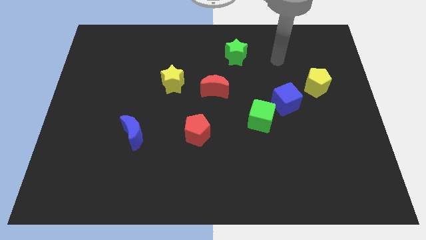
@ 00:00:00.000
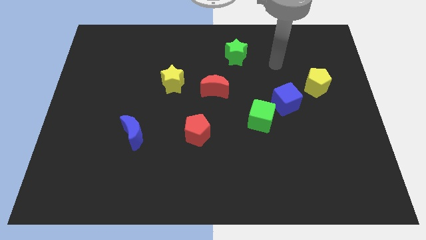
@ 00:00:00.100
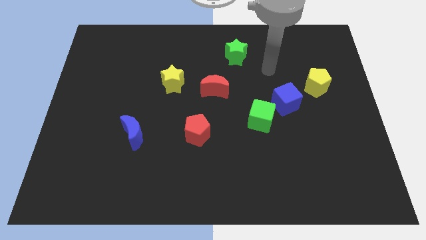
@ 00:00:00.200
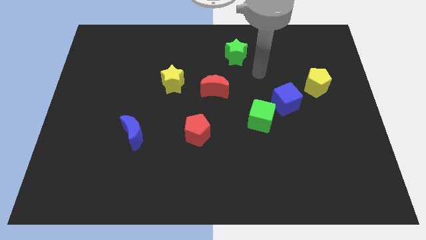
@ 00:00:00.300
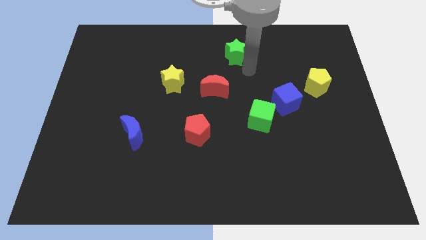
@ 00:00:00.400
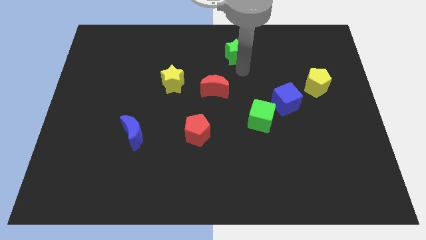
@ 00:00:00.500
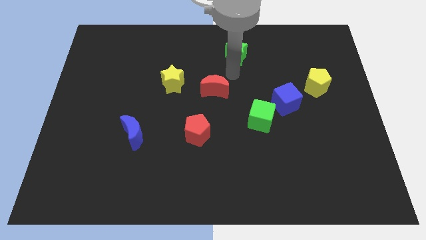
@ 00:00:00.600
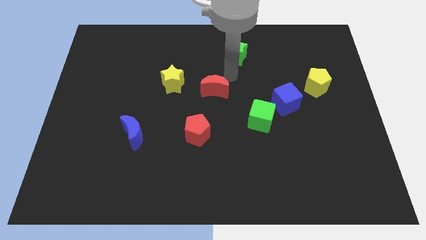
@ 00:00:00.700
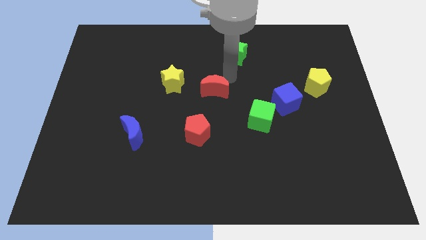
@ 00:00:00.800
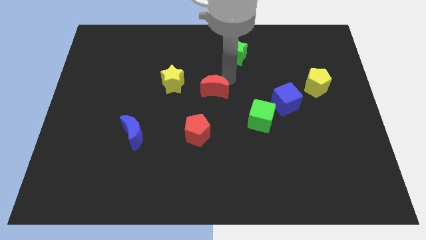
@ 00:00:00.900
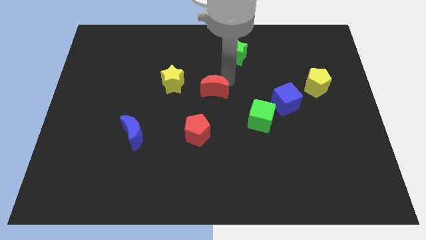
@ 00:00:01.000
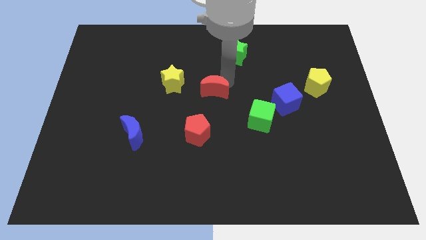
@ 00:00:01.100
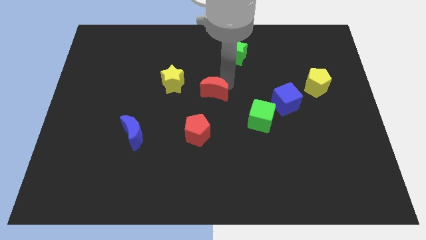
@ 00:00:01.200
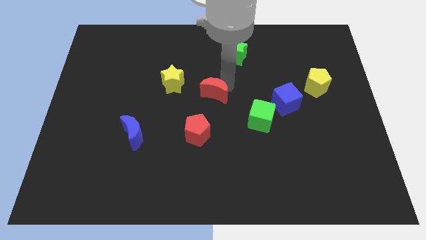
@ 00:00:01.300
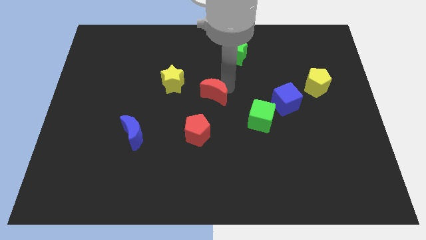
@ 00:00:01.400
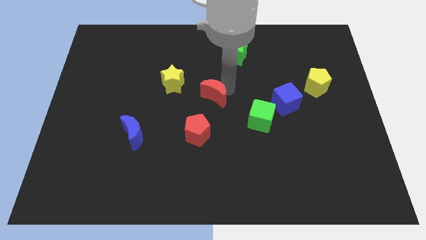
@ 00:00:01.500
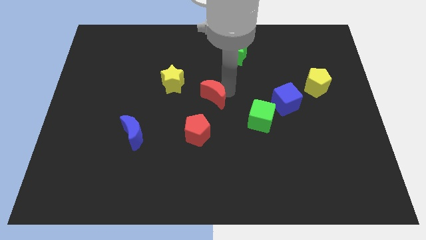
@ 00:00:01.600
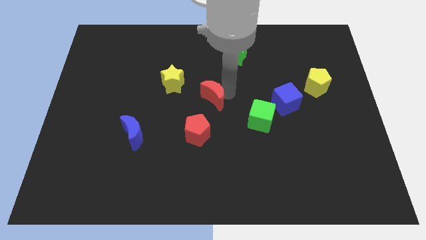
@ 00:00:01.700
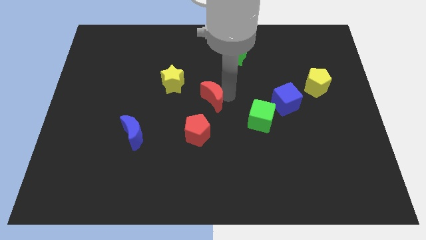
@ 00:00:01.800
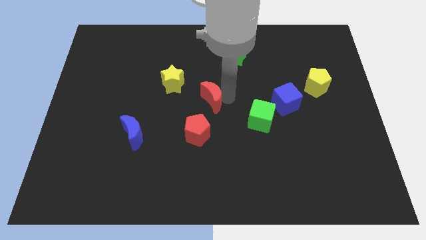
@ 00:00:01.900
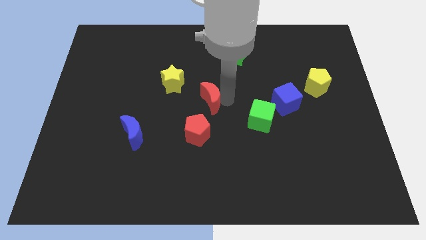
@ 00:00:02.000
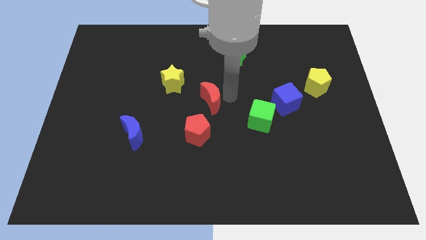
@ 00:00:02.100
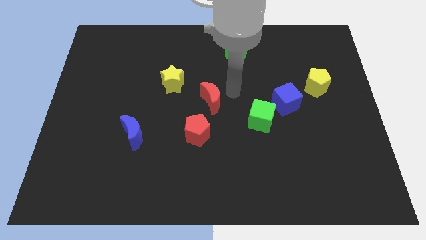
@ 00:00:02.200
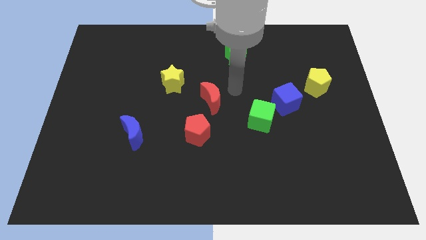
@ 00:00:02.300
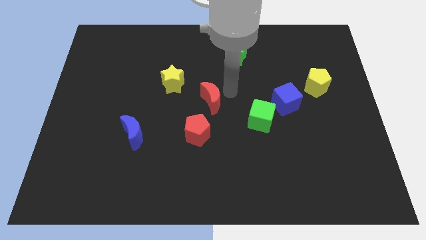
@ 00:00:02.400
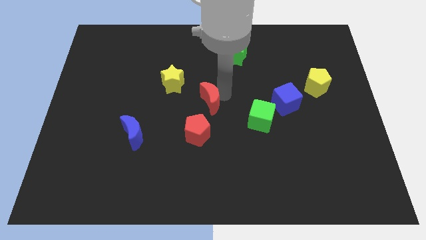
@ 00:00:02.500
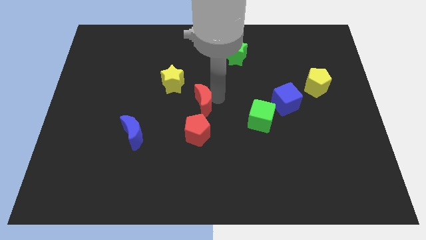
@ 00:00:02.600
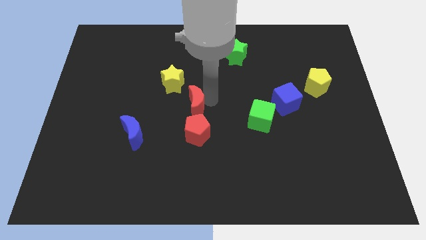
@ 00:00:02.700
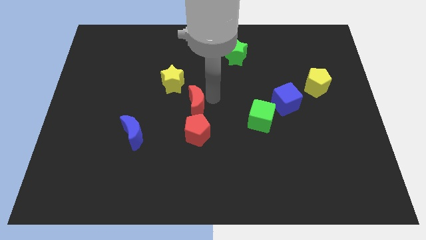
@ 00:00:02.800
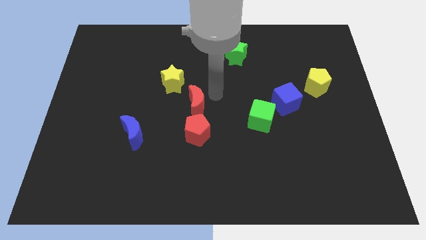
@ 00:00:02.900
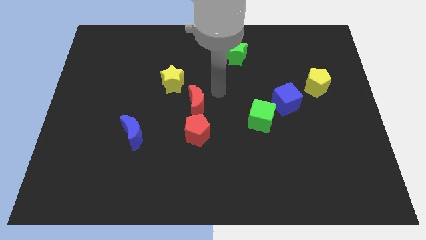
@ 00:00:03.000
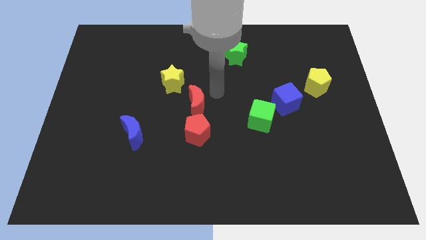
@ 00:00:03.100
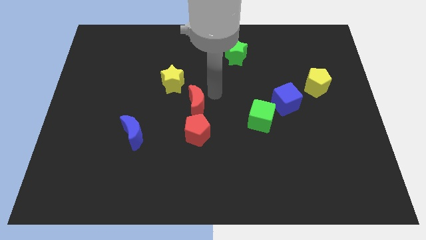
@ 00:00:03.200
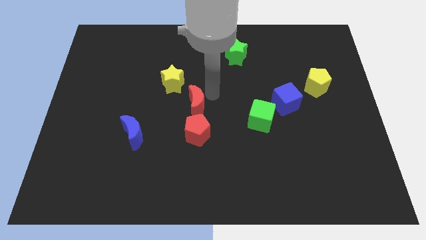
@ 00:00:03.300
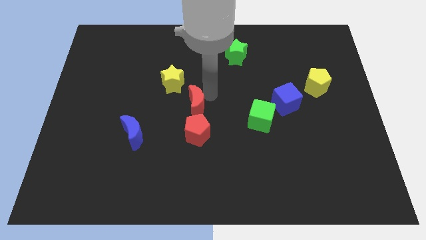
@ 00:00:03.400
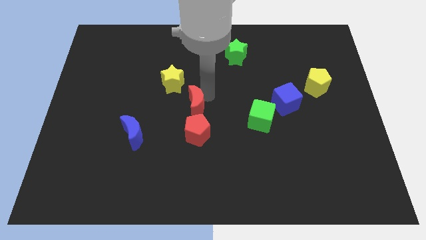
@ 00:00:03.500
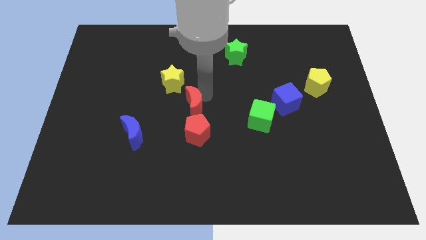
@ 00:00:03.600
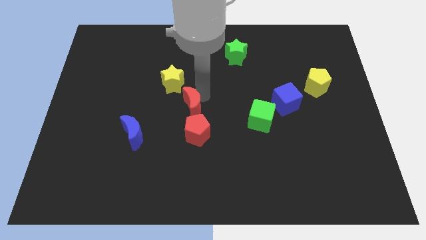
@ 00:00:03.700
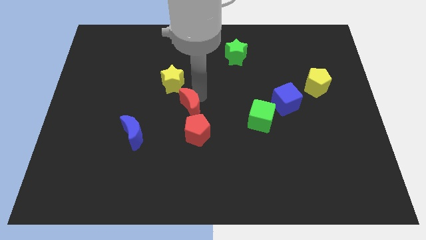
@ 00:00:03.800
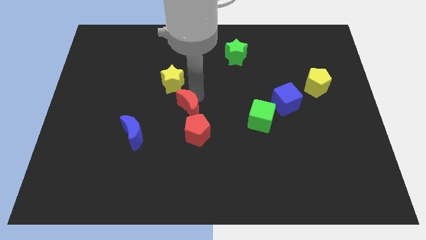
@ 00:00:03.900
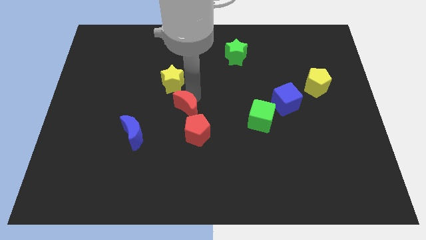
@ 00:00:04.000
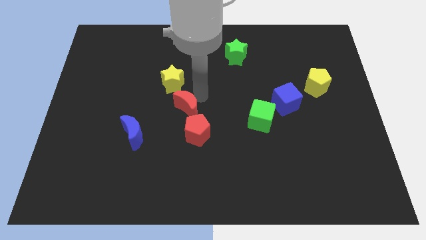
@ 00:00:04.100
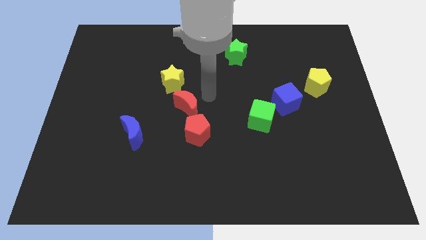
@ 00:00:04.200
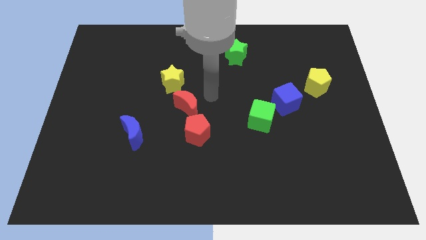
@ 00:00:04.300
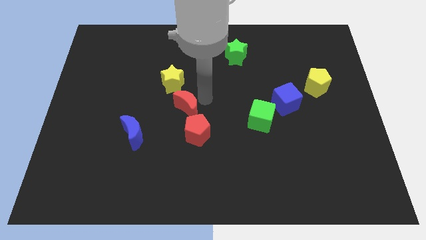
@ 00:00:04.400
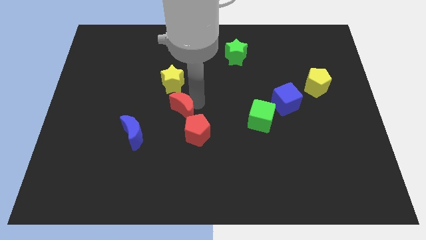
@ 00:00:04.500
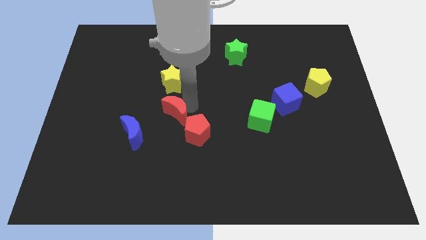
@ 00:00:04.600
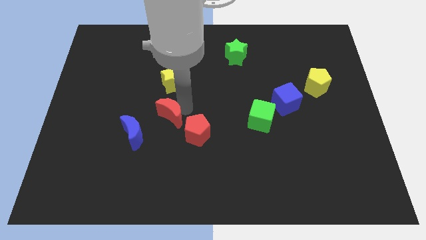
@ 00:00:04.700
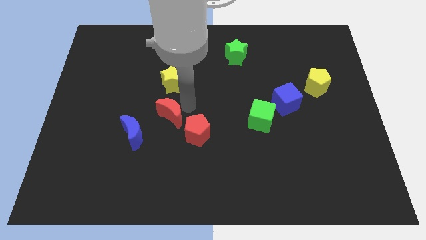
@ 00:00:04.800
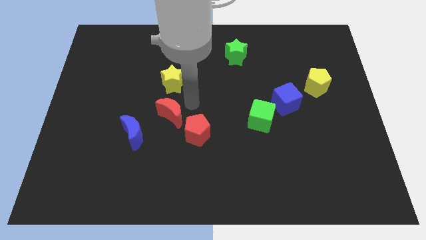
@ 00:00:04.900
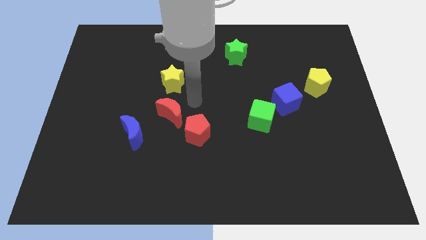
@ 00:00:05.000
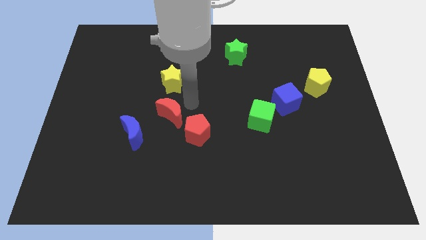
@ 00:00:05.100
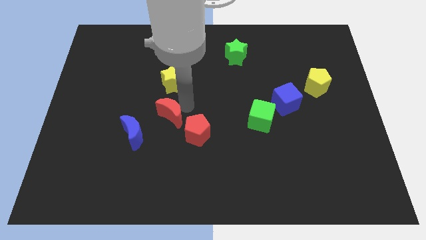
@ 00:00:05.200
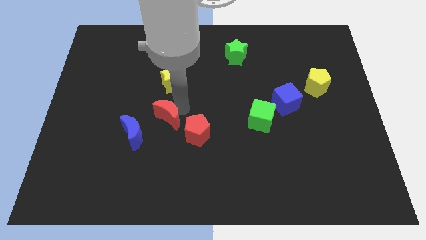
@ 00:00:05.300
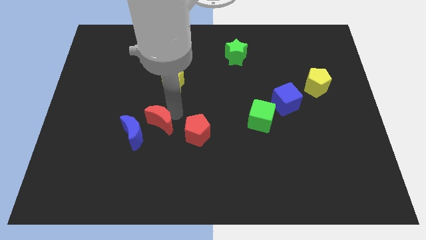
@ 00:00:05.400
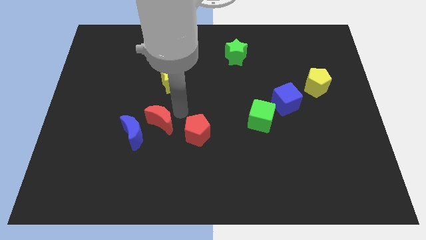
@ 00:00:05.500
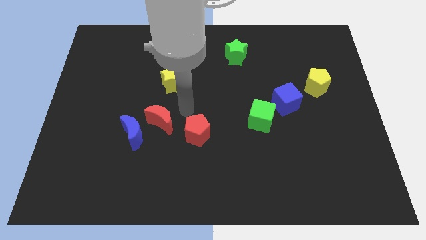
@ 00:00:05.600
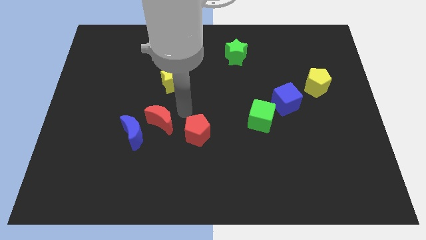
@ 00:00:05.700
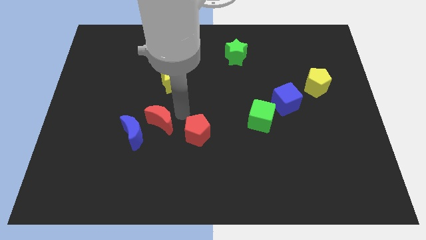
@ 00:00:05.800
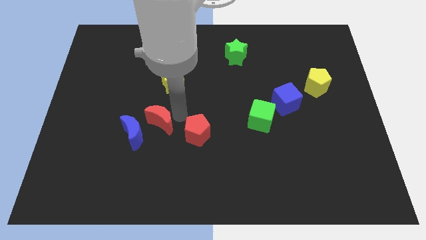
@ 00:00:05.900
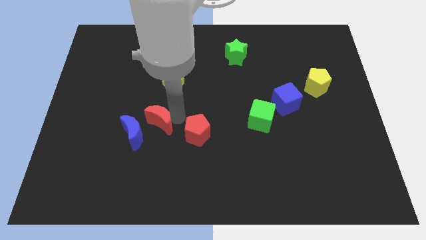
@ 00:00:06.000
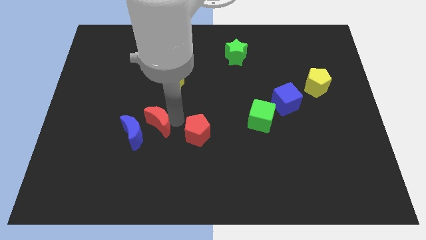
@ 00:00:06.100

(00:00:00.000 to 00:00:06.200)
slide the red moon close to the blue moon
